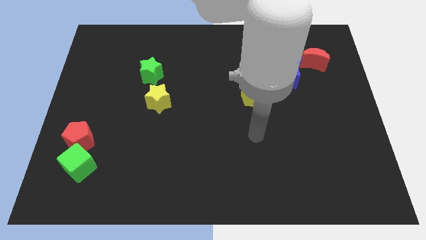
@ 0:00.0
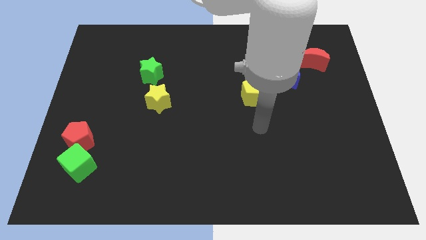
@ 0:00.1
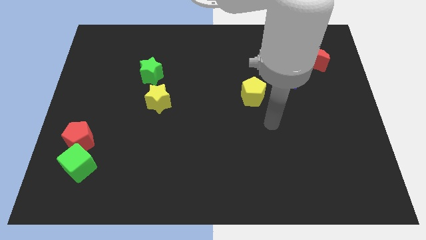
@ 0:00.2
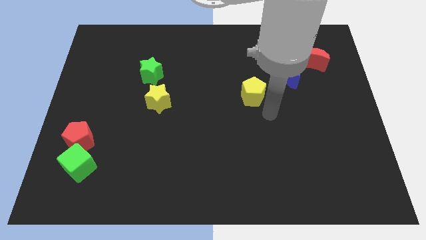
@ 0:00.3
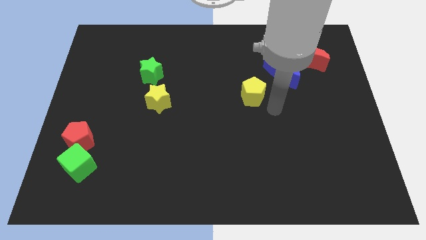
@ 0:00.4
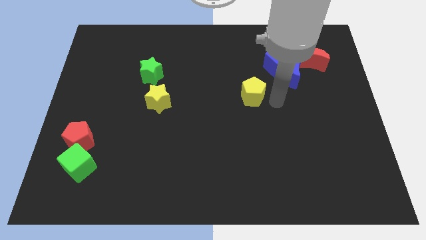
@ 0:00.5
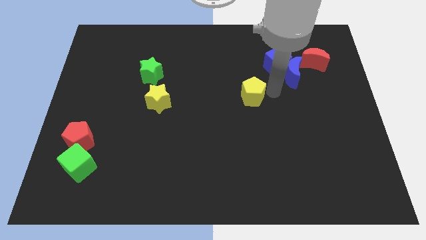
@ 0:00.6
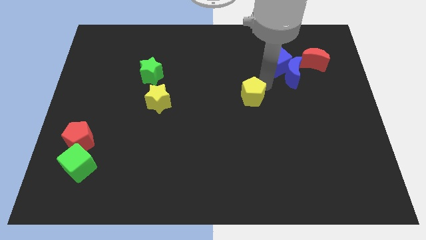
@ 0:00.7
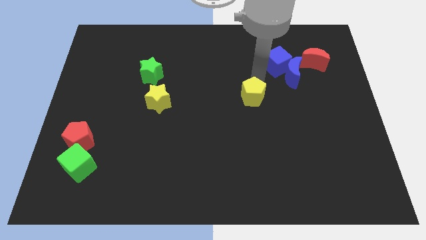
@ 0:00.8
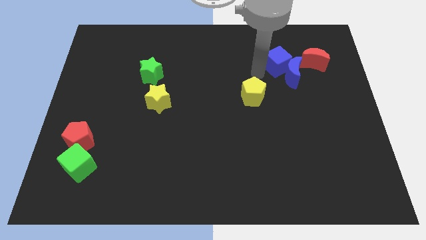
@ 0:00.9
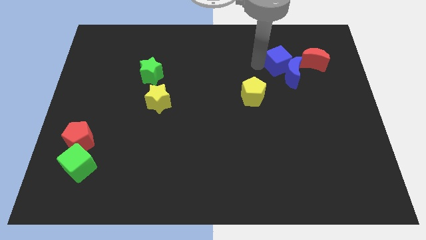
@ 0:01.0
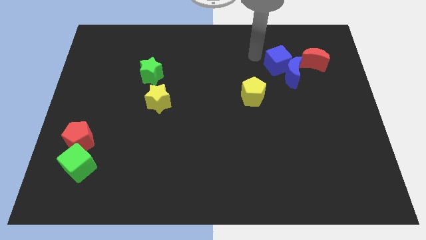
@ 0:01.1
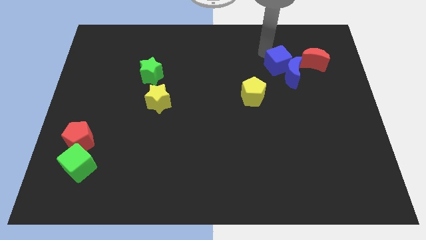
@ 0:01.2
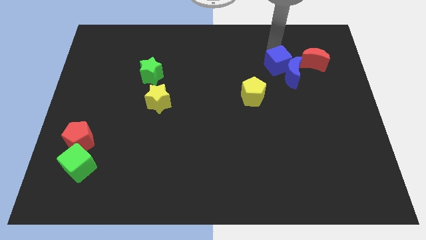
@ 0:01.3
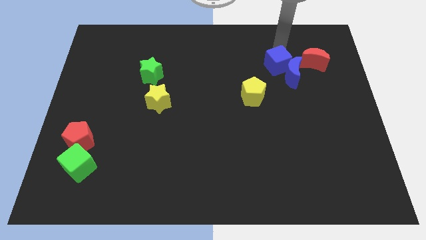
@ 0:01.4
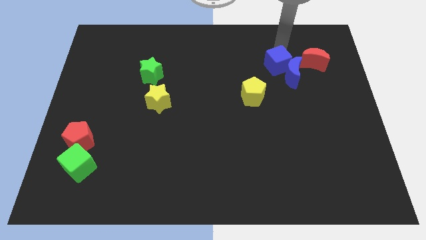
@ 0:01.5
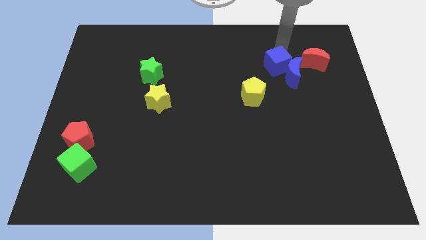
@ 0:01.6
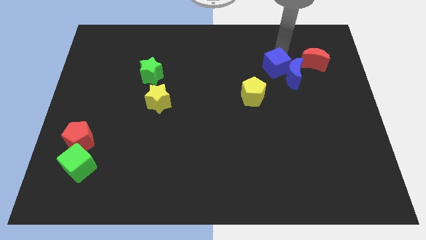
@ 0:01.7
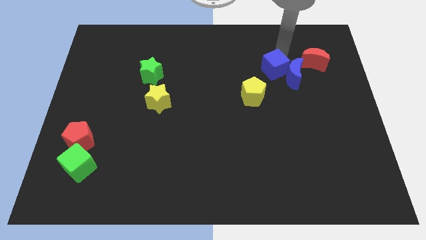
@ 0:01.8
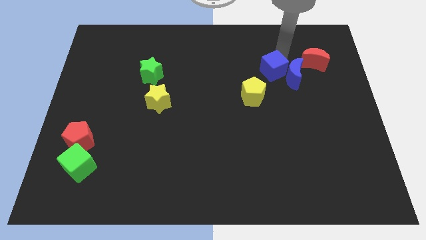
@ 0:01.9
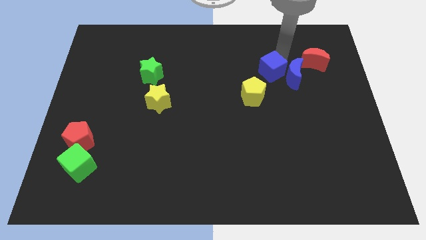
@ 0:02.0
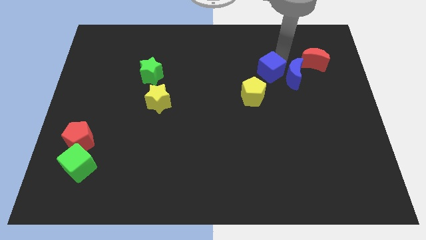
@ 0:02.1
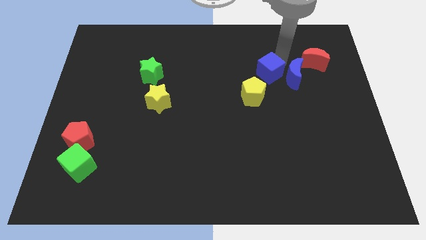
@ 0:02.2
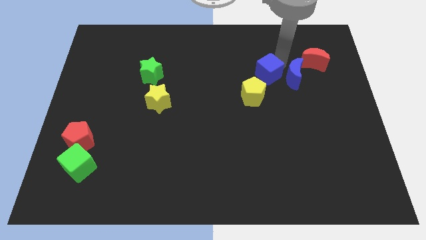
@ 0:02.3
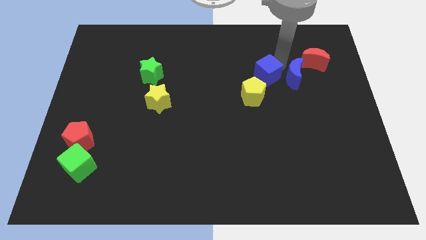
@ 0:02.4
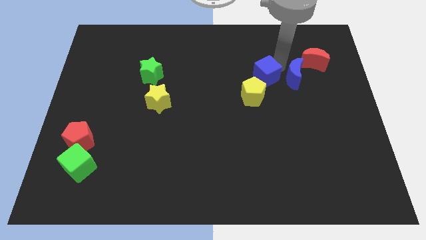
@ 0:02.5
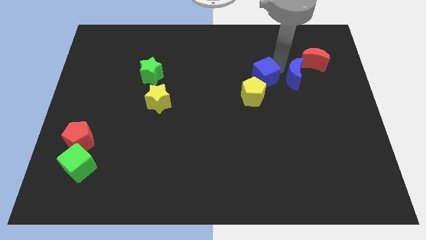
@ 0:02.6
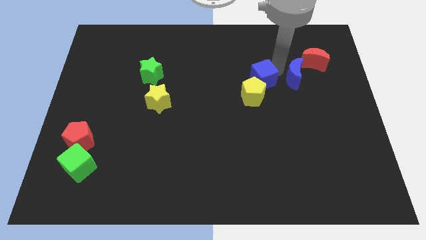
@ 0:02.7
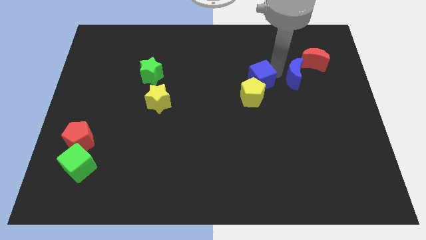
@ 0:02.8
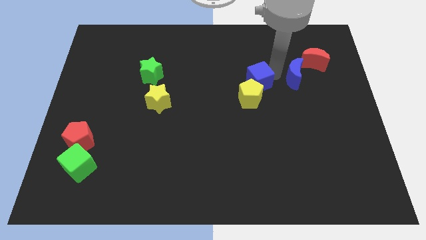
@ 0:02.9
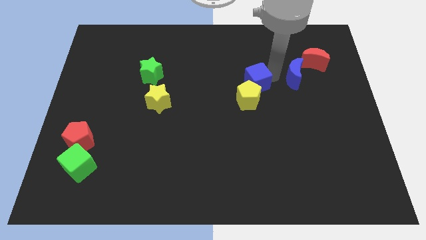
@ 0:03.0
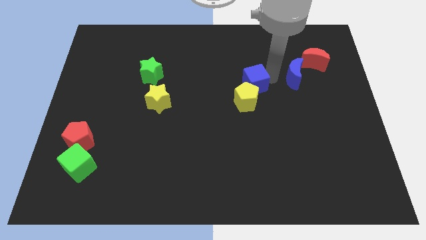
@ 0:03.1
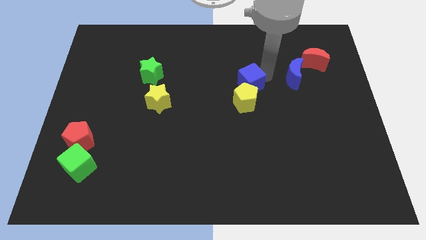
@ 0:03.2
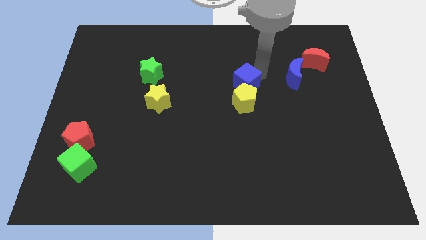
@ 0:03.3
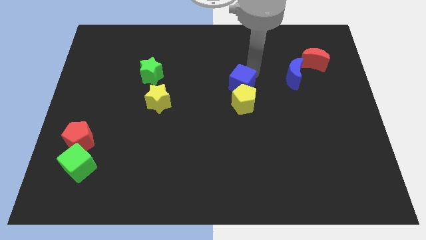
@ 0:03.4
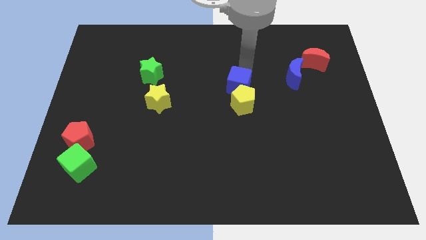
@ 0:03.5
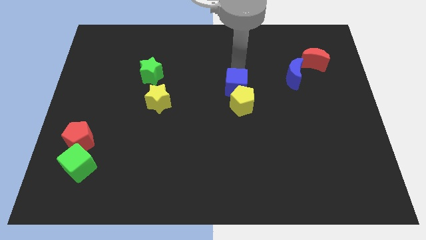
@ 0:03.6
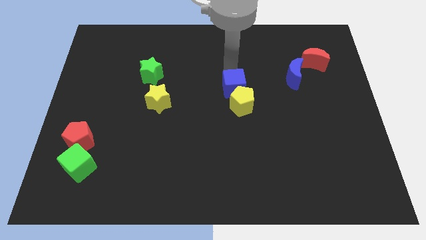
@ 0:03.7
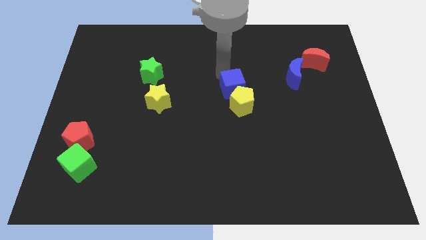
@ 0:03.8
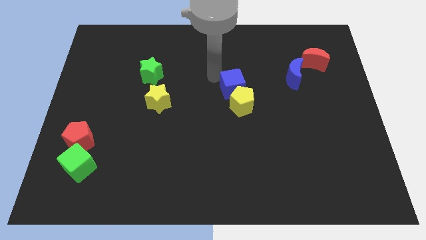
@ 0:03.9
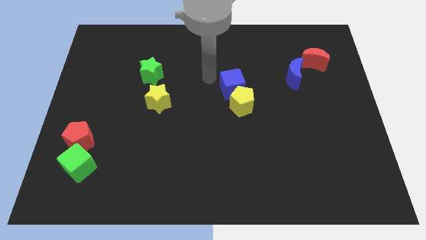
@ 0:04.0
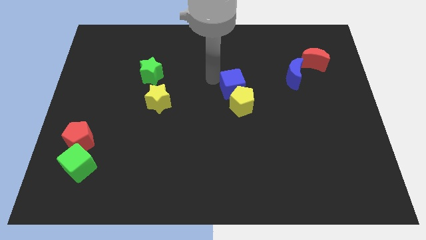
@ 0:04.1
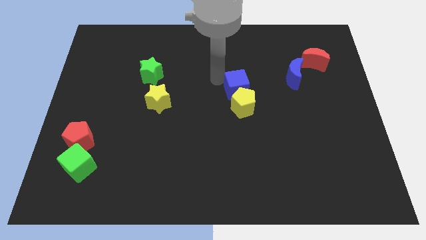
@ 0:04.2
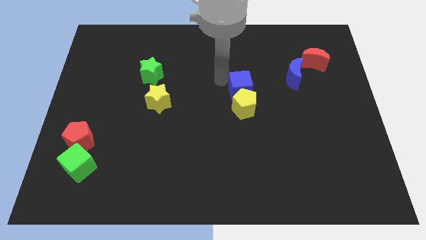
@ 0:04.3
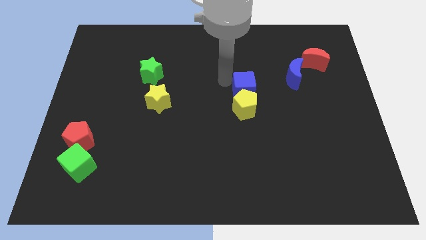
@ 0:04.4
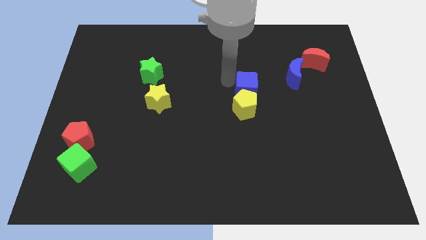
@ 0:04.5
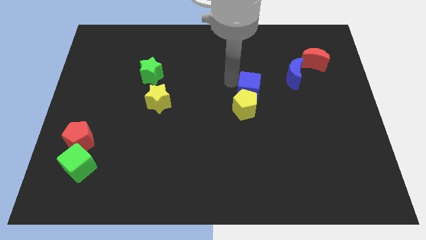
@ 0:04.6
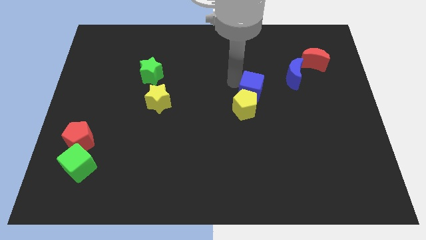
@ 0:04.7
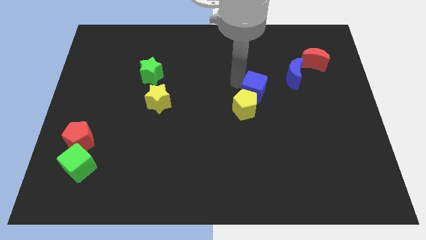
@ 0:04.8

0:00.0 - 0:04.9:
push the blue cube slightly downwards

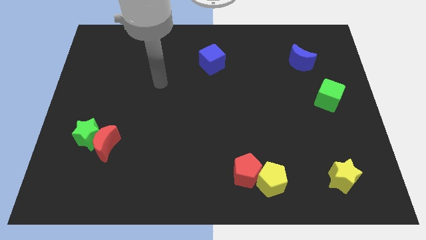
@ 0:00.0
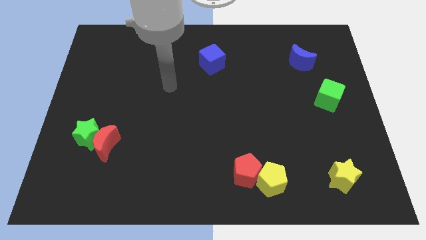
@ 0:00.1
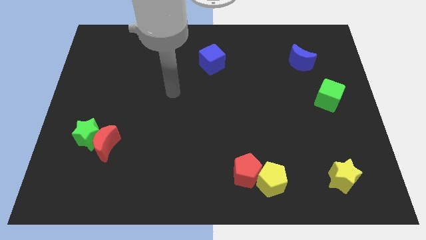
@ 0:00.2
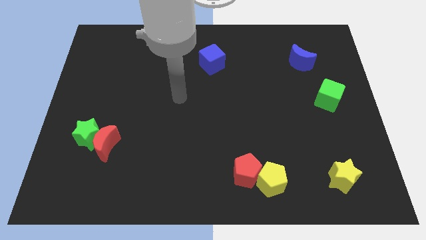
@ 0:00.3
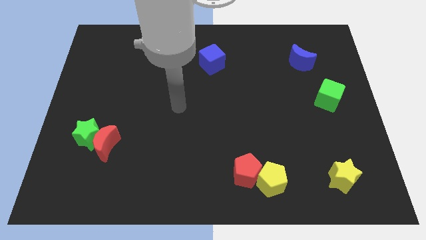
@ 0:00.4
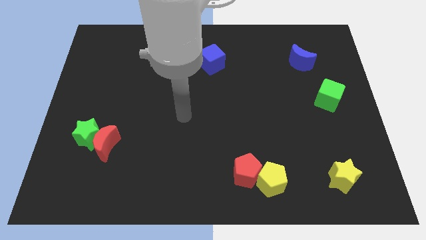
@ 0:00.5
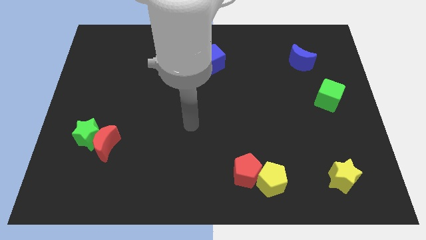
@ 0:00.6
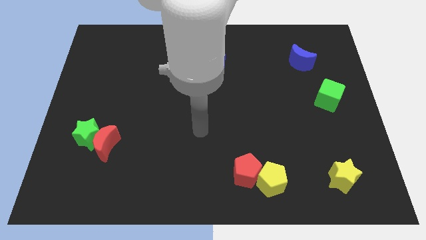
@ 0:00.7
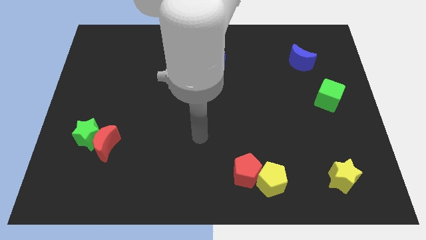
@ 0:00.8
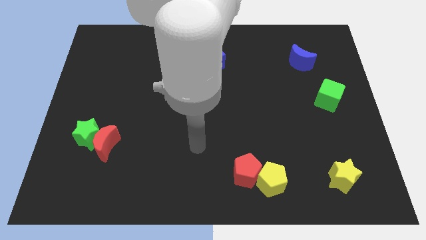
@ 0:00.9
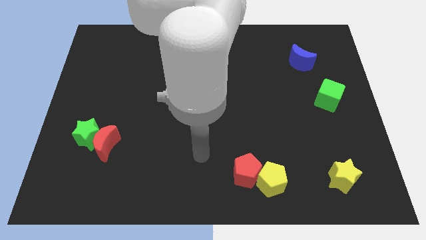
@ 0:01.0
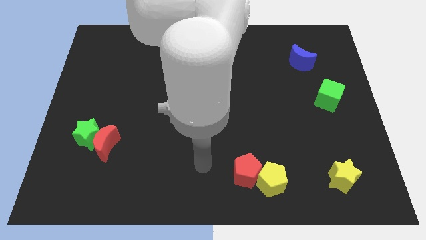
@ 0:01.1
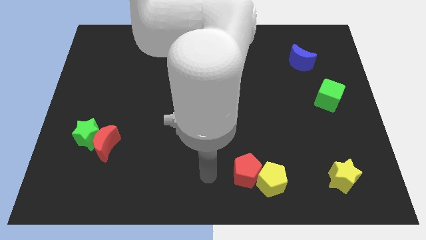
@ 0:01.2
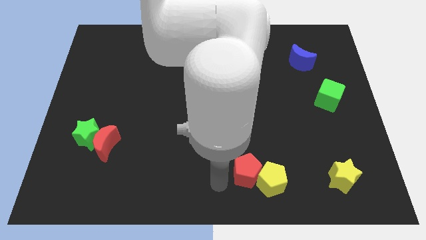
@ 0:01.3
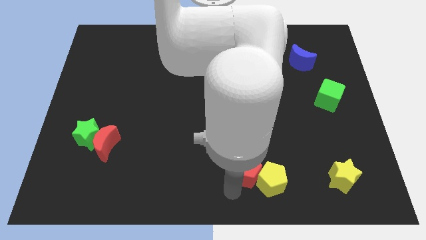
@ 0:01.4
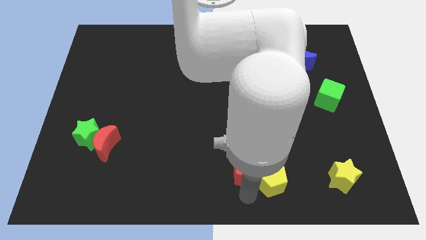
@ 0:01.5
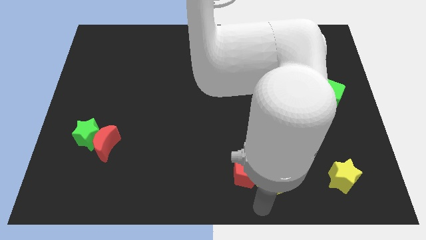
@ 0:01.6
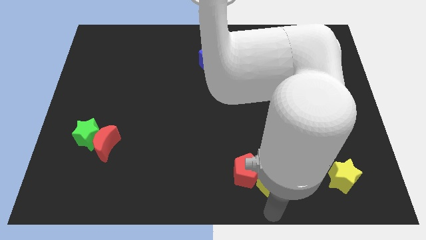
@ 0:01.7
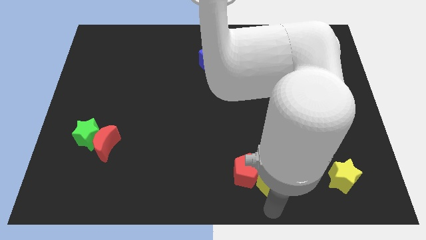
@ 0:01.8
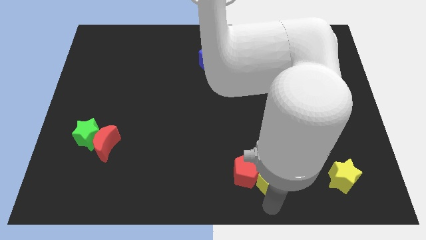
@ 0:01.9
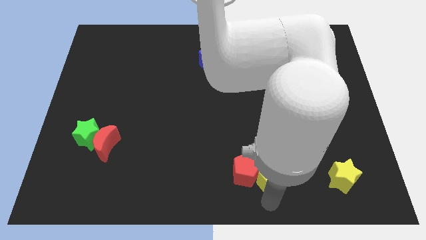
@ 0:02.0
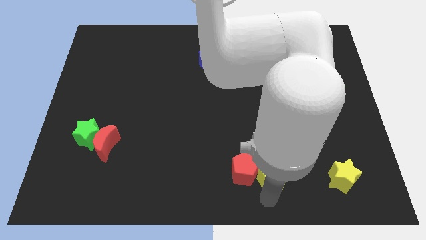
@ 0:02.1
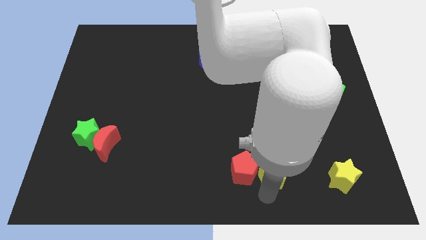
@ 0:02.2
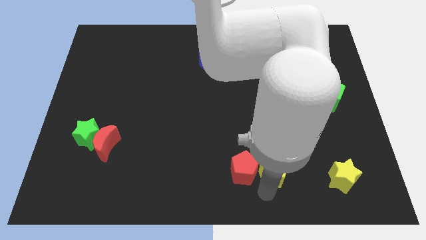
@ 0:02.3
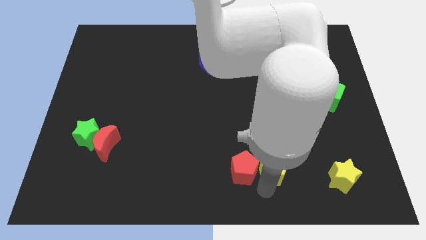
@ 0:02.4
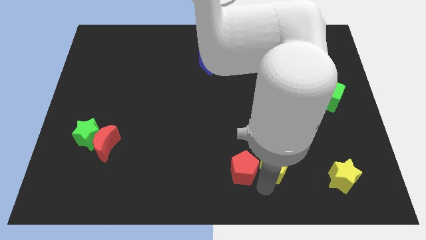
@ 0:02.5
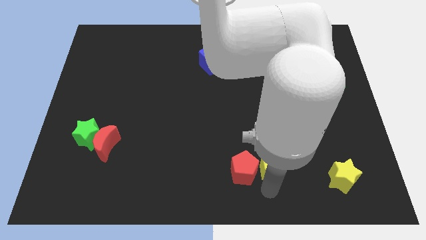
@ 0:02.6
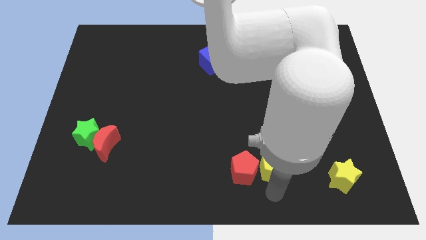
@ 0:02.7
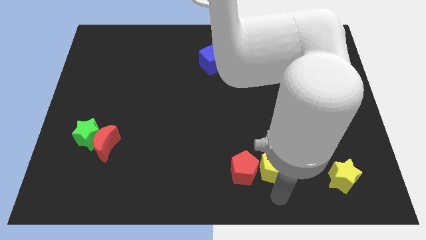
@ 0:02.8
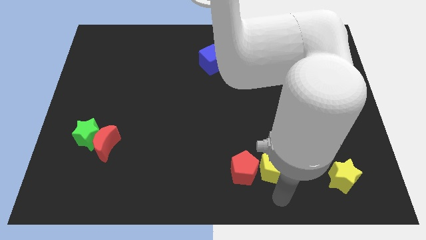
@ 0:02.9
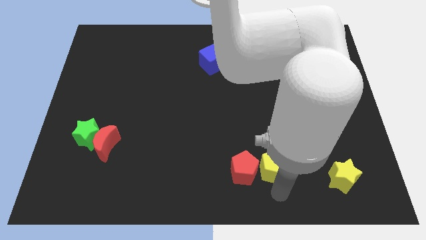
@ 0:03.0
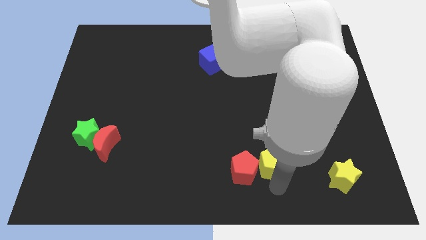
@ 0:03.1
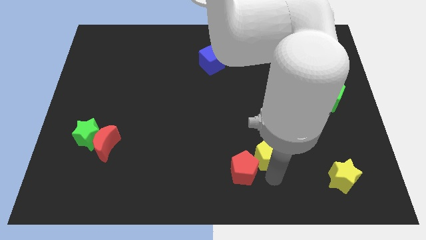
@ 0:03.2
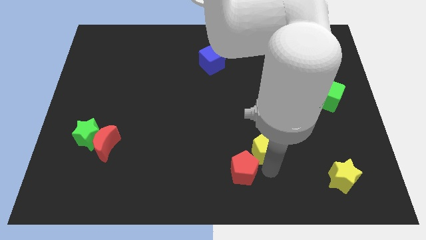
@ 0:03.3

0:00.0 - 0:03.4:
move the yellow pentagon up a little
